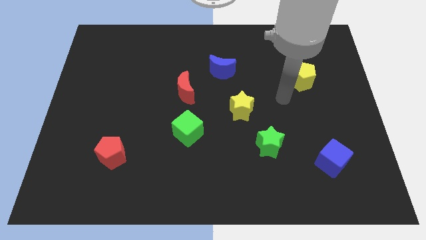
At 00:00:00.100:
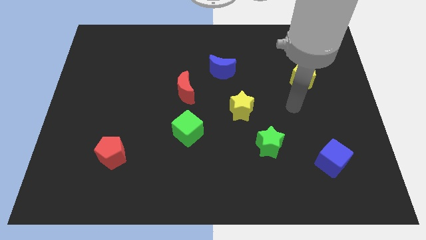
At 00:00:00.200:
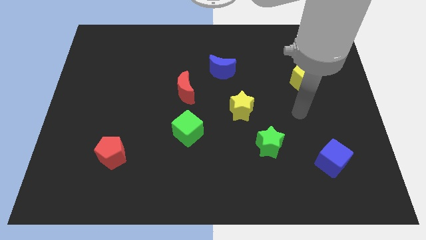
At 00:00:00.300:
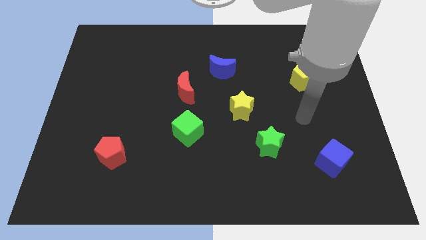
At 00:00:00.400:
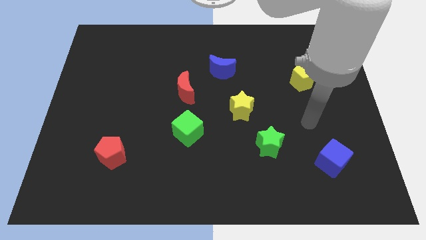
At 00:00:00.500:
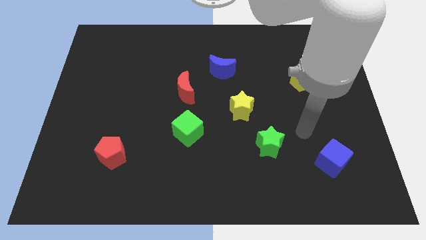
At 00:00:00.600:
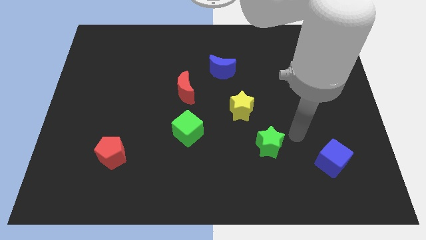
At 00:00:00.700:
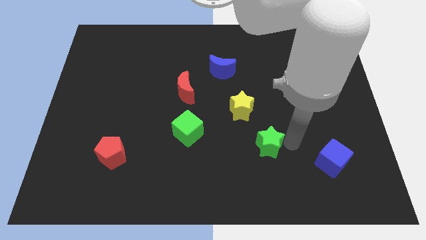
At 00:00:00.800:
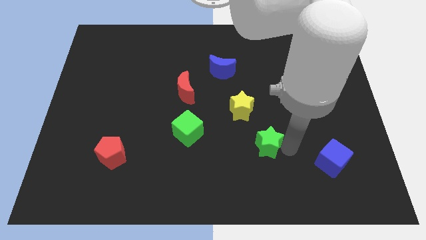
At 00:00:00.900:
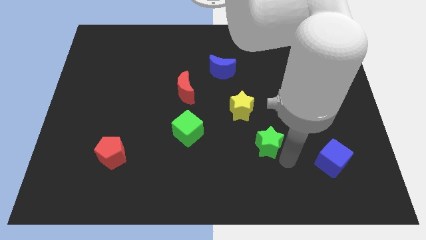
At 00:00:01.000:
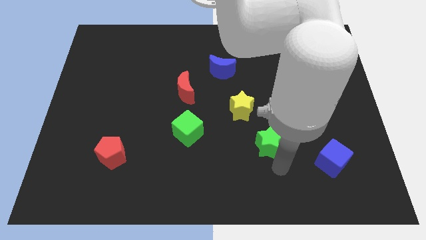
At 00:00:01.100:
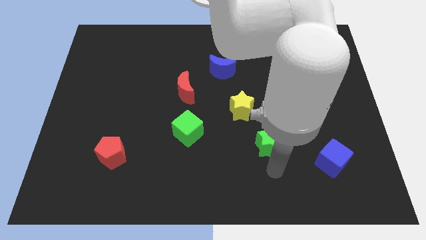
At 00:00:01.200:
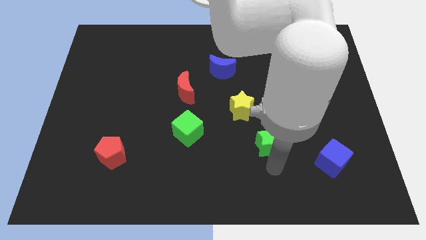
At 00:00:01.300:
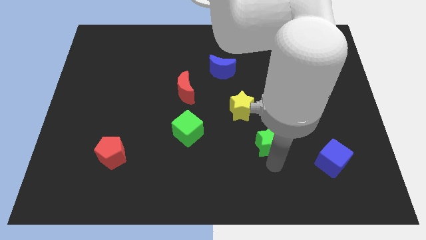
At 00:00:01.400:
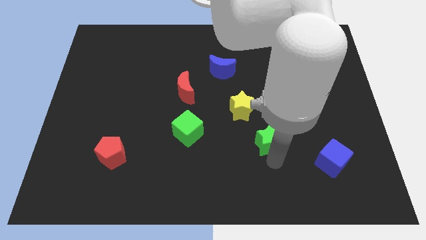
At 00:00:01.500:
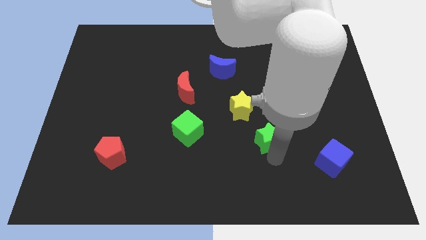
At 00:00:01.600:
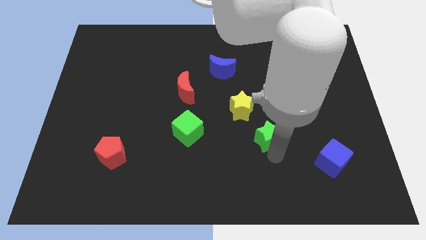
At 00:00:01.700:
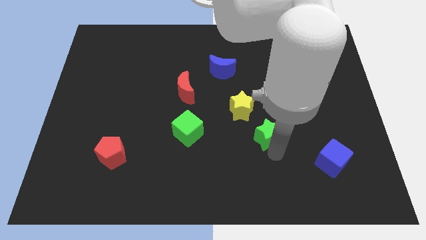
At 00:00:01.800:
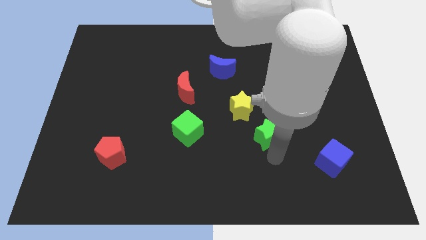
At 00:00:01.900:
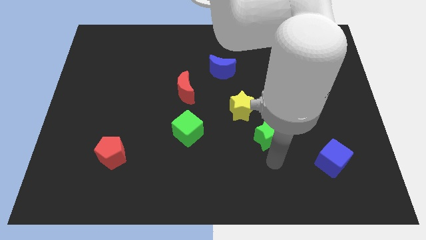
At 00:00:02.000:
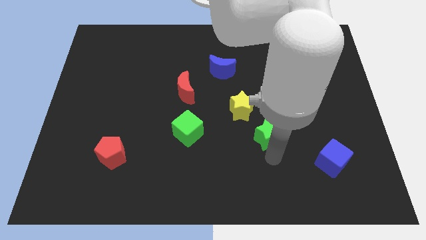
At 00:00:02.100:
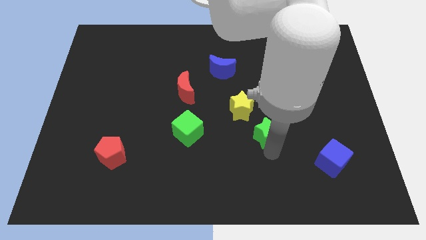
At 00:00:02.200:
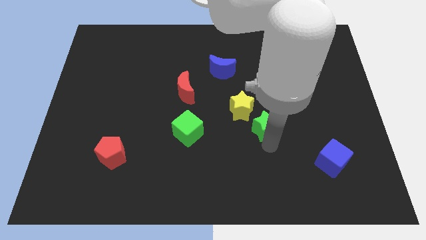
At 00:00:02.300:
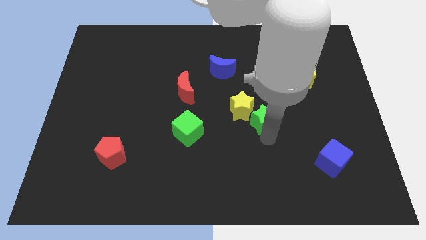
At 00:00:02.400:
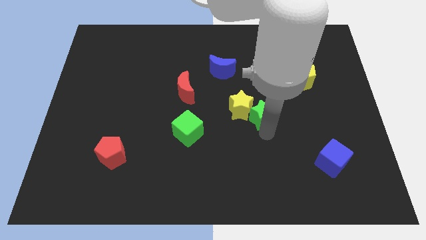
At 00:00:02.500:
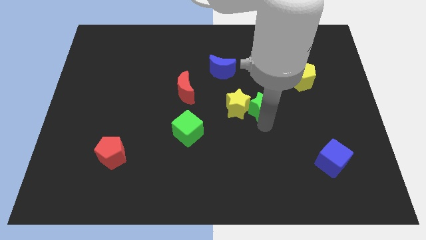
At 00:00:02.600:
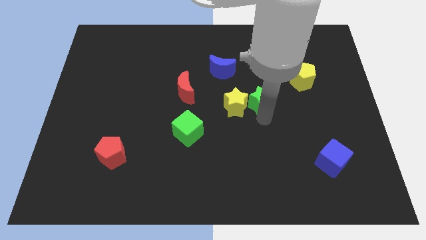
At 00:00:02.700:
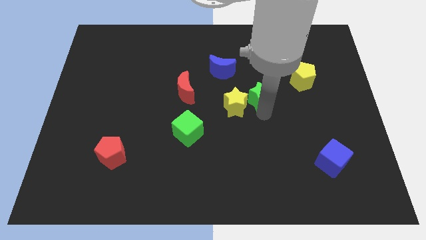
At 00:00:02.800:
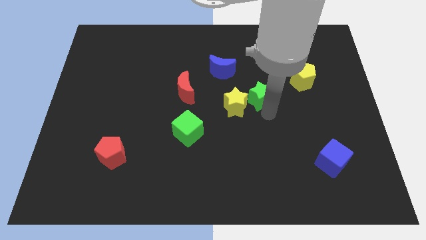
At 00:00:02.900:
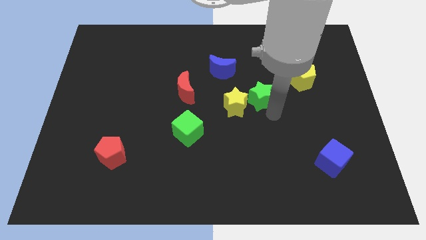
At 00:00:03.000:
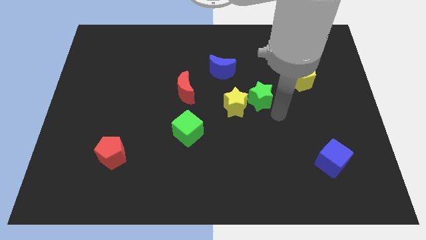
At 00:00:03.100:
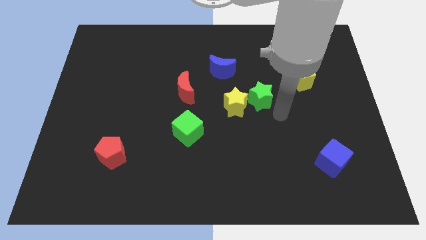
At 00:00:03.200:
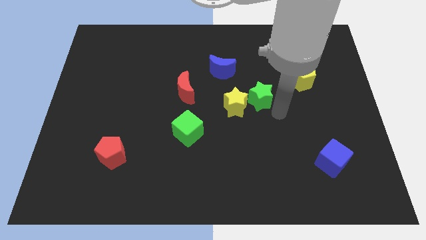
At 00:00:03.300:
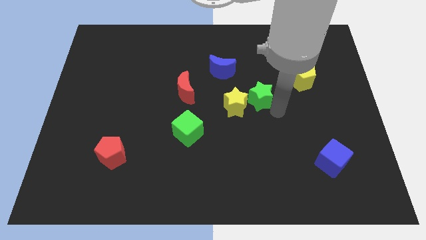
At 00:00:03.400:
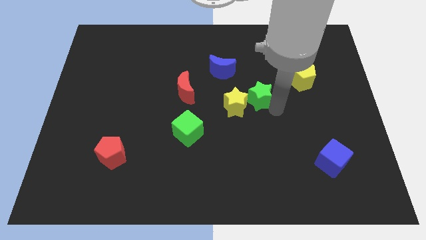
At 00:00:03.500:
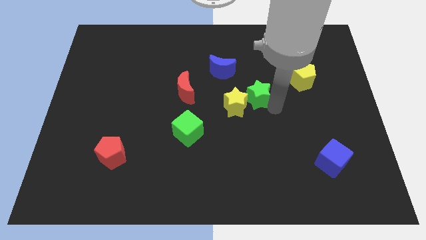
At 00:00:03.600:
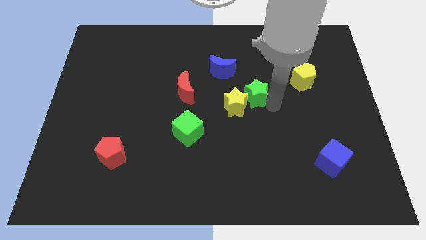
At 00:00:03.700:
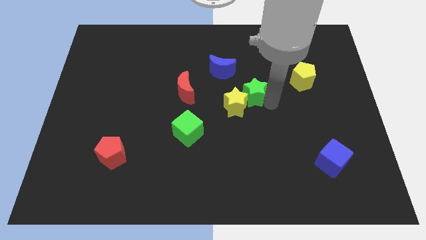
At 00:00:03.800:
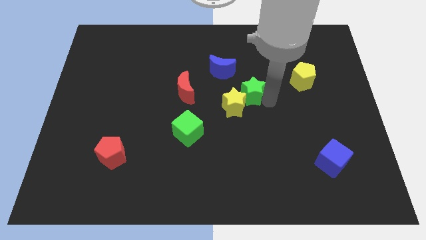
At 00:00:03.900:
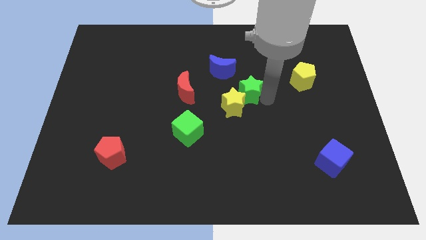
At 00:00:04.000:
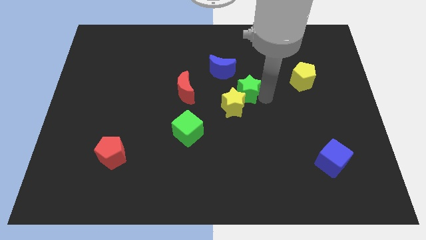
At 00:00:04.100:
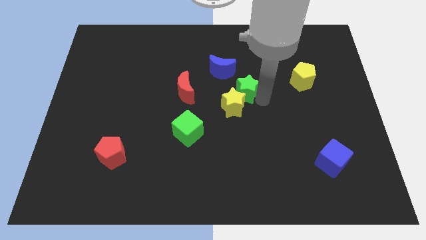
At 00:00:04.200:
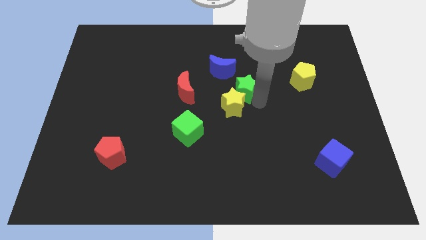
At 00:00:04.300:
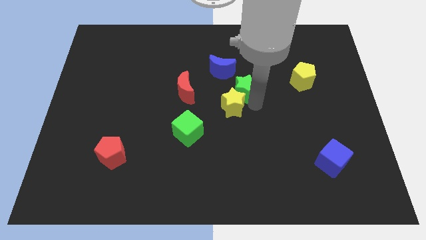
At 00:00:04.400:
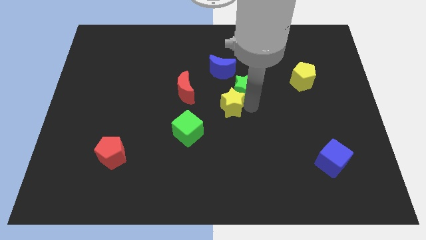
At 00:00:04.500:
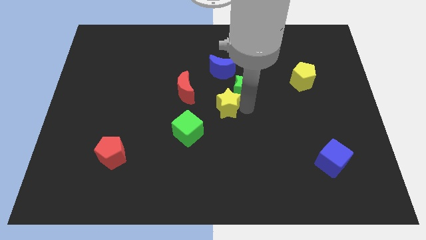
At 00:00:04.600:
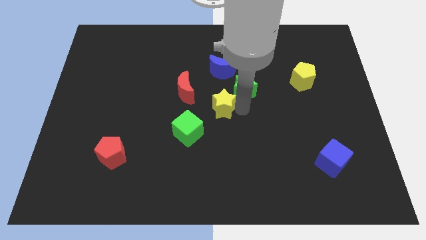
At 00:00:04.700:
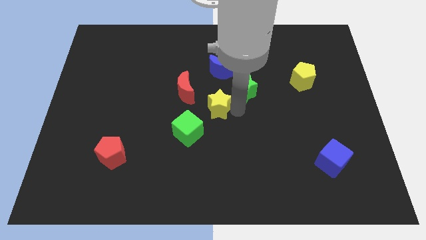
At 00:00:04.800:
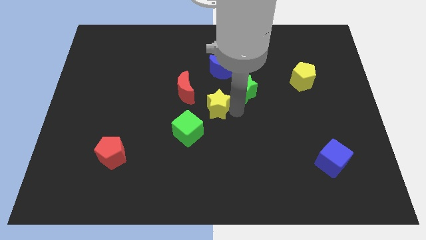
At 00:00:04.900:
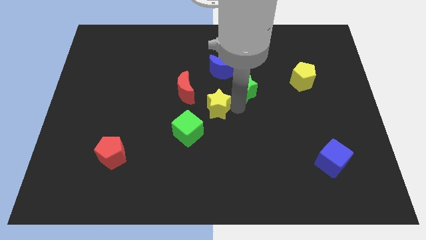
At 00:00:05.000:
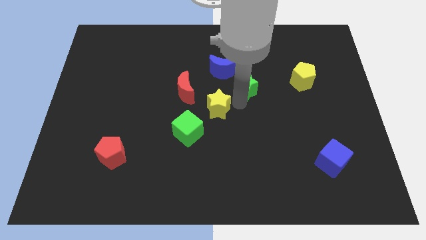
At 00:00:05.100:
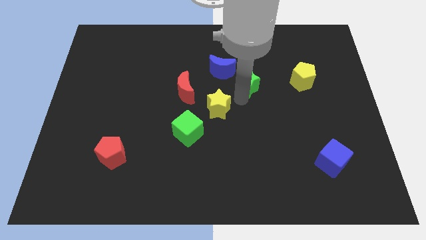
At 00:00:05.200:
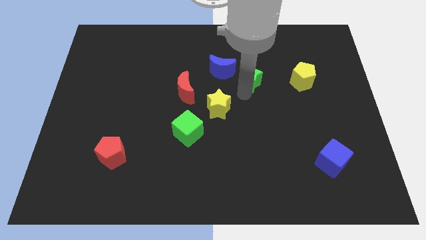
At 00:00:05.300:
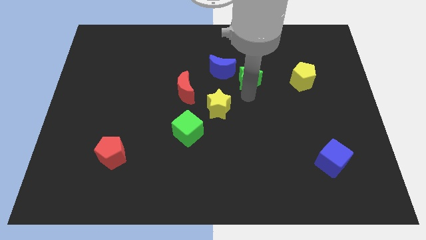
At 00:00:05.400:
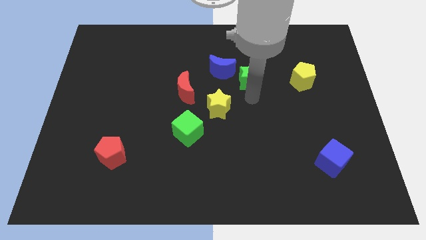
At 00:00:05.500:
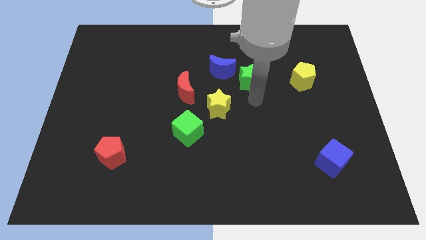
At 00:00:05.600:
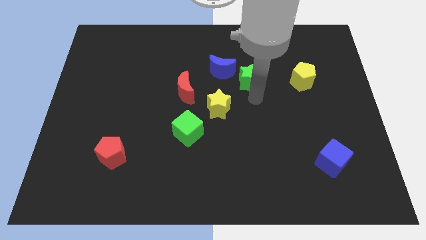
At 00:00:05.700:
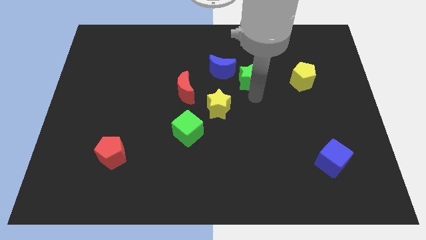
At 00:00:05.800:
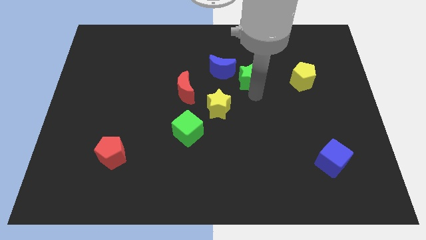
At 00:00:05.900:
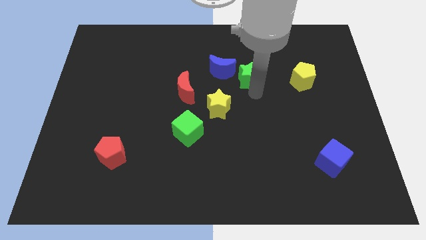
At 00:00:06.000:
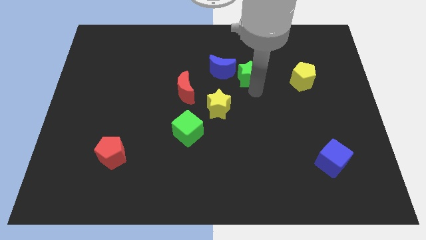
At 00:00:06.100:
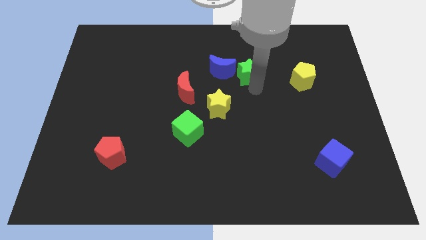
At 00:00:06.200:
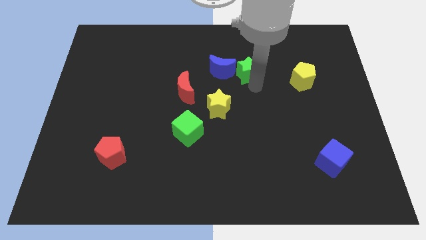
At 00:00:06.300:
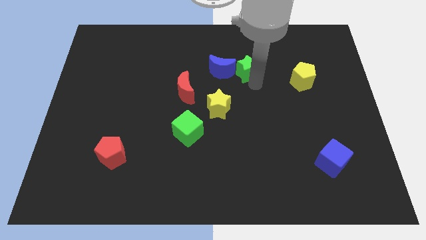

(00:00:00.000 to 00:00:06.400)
move the green star to the top right of the blue moon
